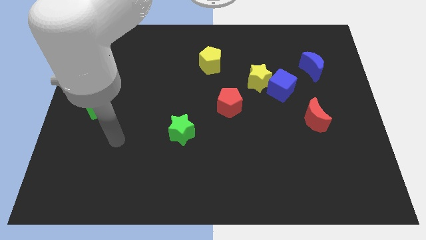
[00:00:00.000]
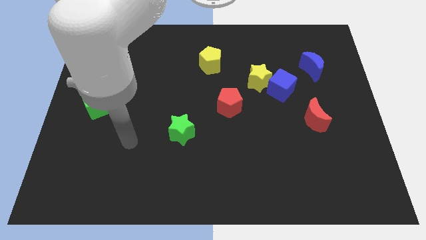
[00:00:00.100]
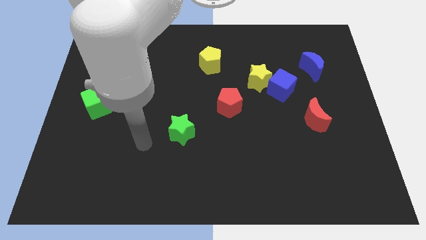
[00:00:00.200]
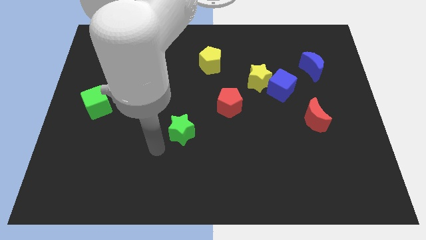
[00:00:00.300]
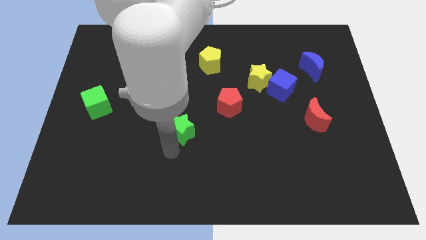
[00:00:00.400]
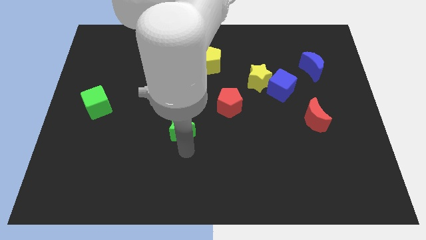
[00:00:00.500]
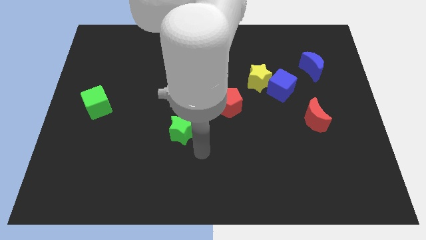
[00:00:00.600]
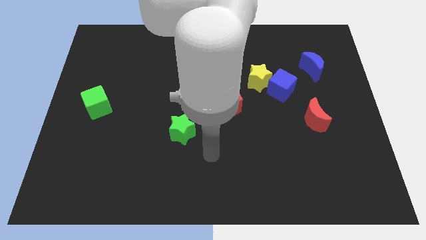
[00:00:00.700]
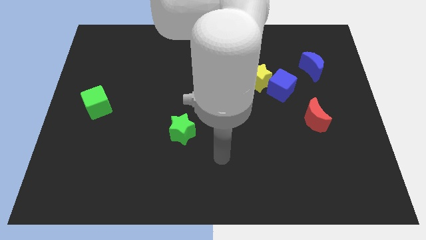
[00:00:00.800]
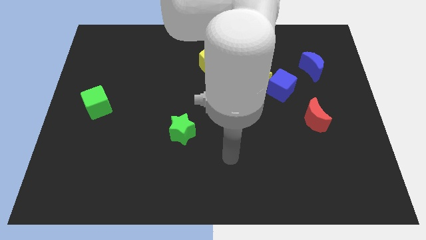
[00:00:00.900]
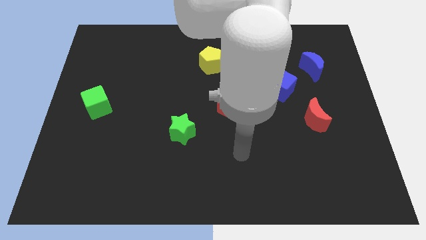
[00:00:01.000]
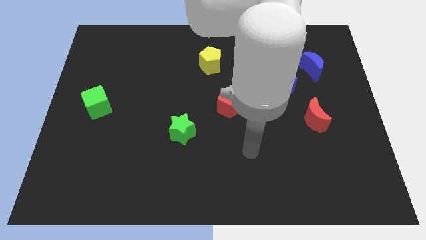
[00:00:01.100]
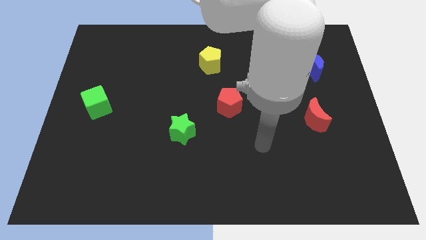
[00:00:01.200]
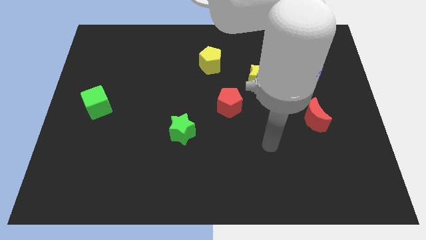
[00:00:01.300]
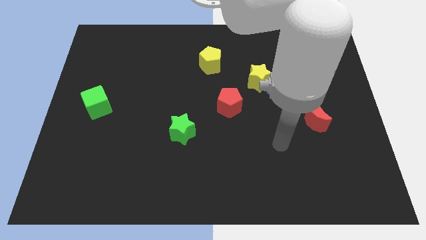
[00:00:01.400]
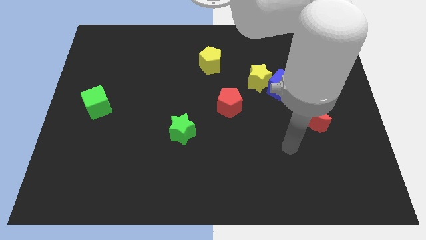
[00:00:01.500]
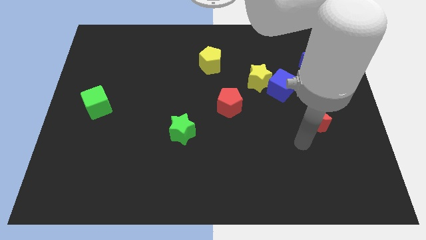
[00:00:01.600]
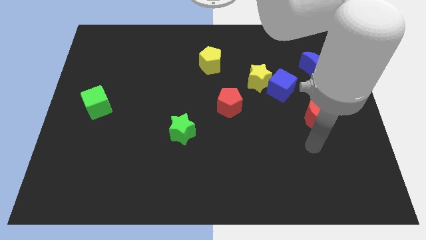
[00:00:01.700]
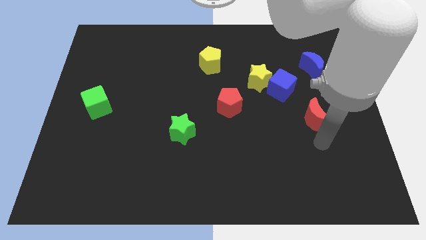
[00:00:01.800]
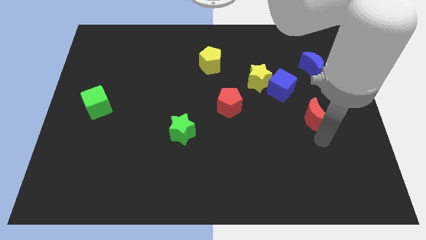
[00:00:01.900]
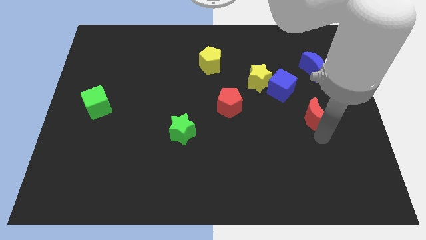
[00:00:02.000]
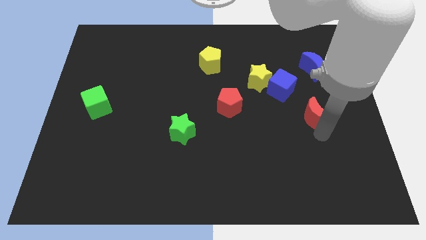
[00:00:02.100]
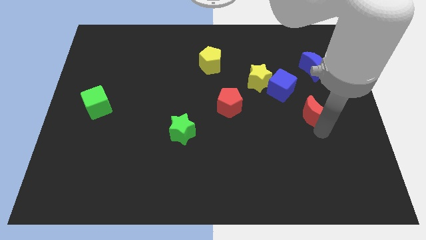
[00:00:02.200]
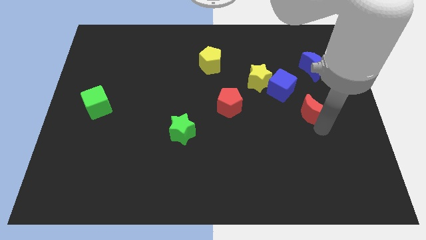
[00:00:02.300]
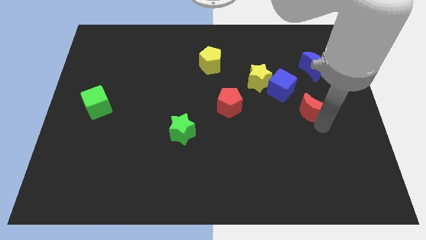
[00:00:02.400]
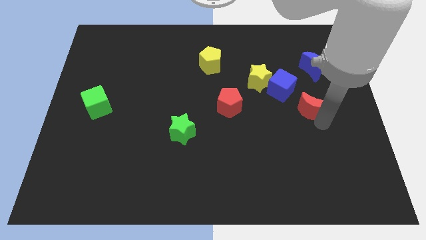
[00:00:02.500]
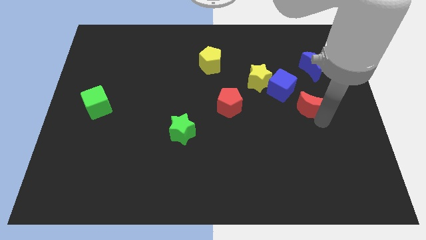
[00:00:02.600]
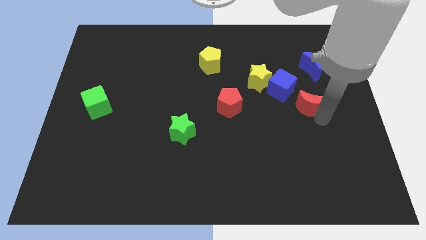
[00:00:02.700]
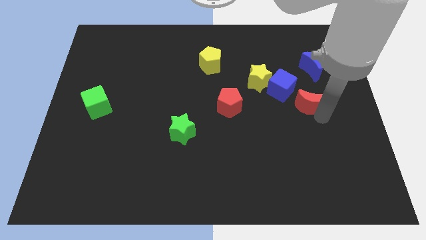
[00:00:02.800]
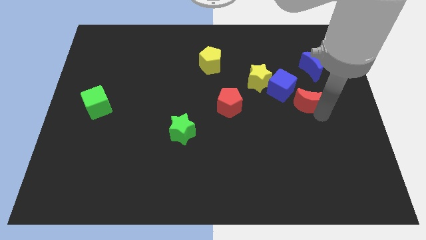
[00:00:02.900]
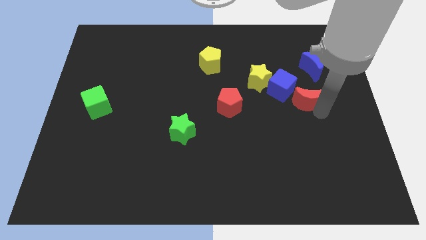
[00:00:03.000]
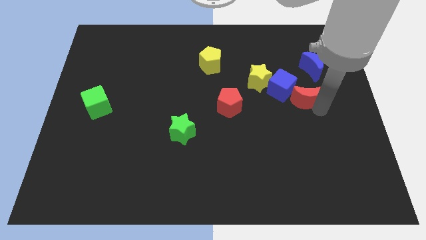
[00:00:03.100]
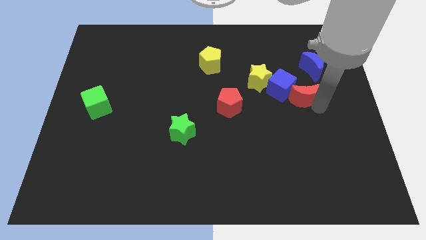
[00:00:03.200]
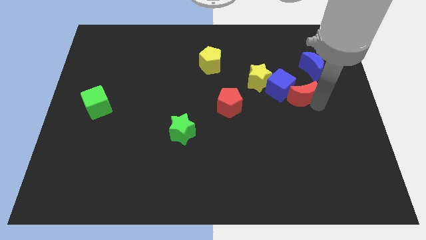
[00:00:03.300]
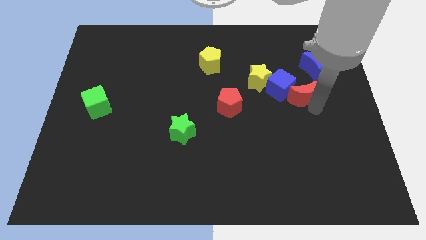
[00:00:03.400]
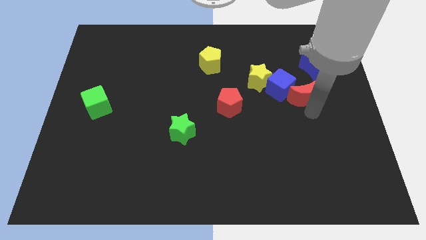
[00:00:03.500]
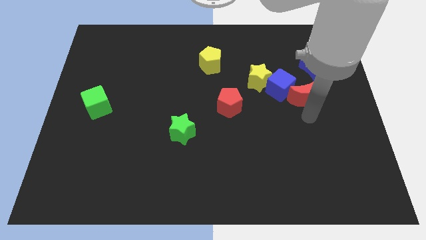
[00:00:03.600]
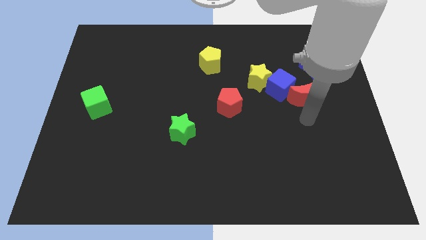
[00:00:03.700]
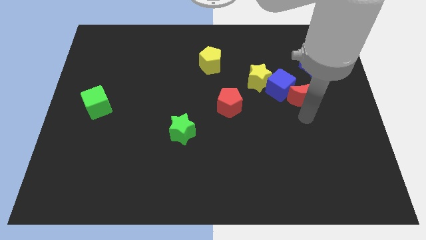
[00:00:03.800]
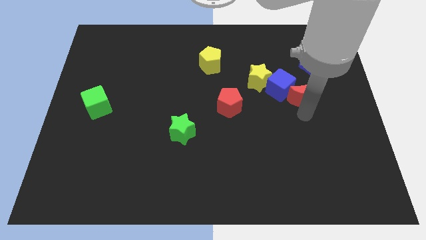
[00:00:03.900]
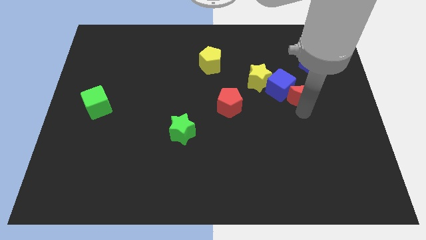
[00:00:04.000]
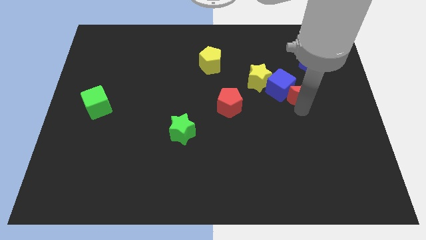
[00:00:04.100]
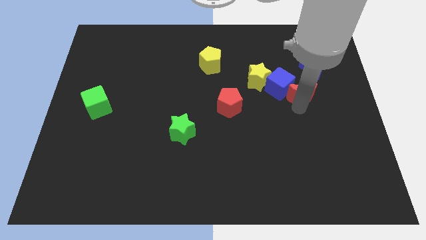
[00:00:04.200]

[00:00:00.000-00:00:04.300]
slightly slide the red moon up

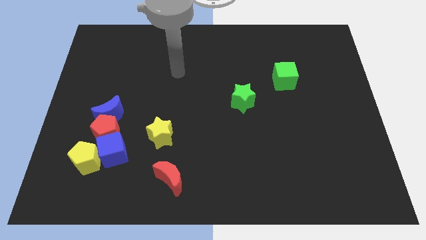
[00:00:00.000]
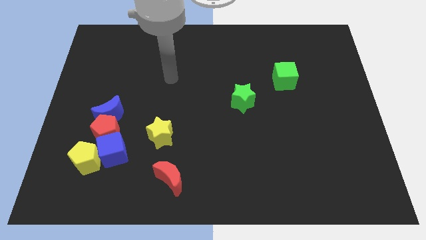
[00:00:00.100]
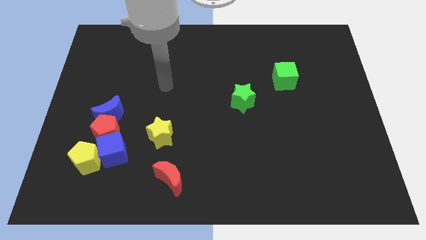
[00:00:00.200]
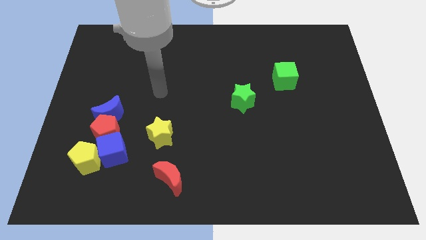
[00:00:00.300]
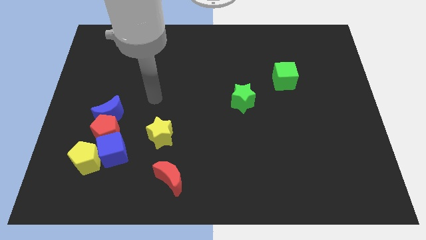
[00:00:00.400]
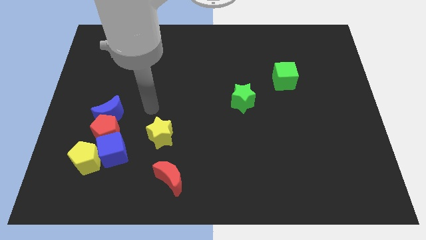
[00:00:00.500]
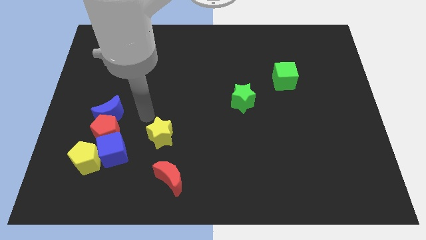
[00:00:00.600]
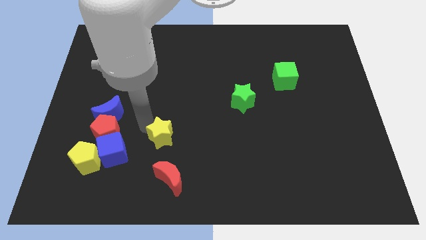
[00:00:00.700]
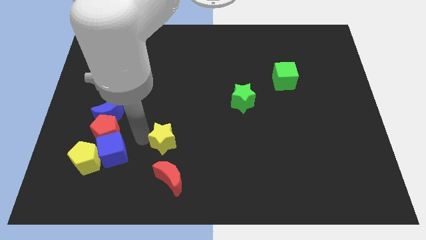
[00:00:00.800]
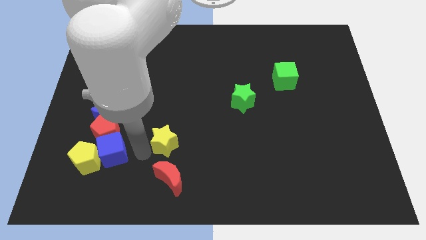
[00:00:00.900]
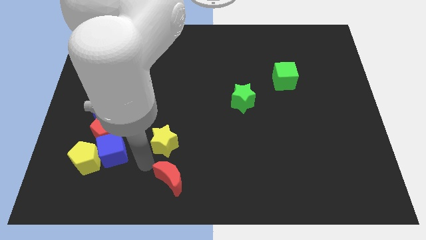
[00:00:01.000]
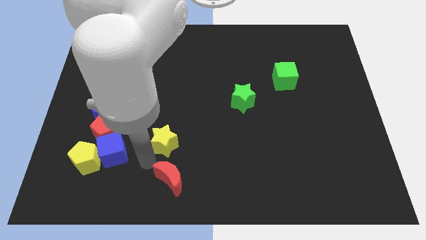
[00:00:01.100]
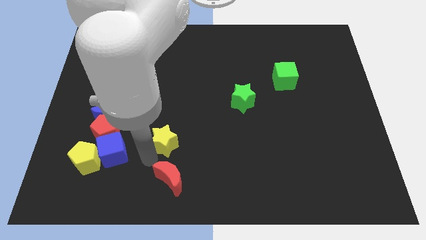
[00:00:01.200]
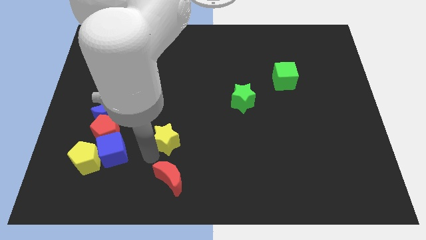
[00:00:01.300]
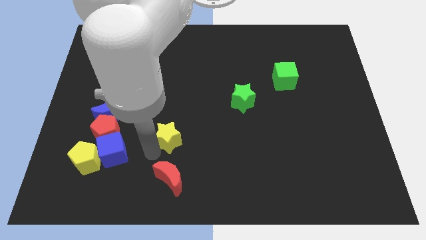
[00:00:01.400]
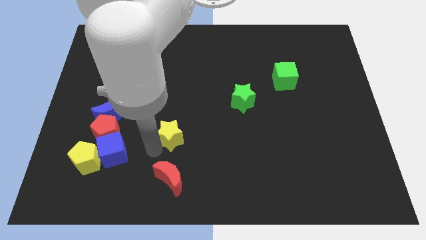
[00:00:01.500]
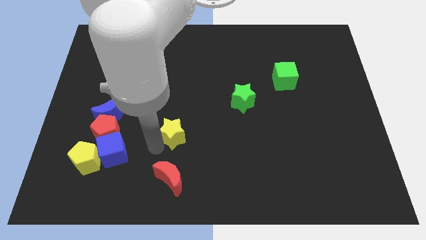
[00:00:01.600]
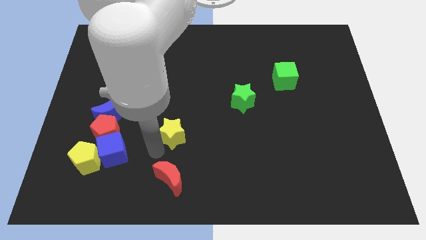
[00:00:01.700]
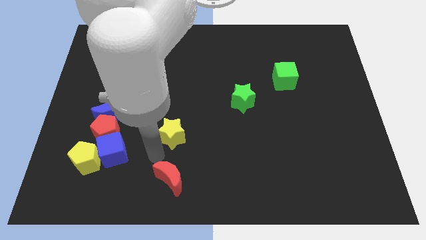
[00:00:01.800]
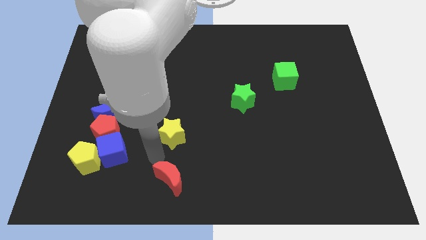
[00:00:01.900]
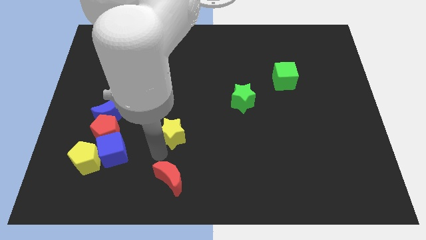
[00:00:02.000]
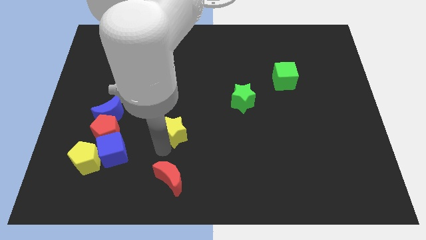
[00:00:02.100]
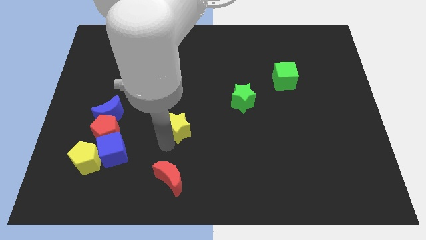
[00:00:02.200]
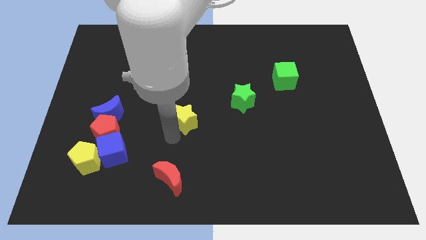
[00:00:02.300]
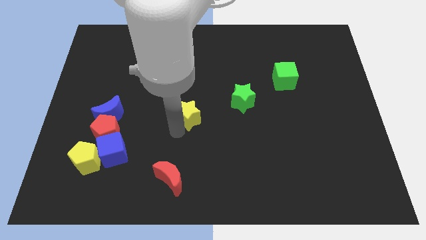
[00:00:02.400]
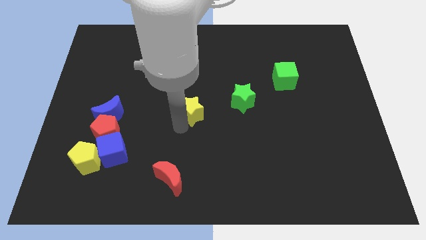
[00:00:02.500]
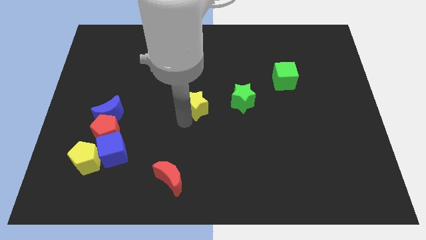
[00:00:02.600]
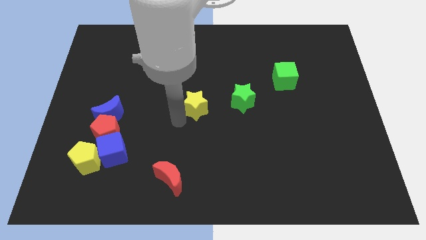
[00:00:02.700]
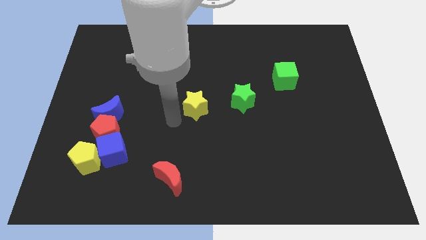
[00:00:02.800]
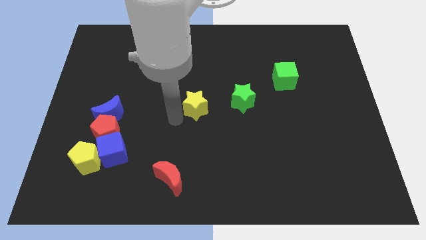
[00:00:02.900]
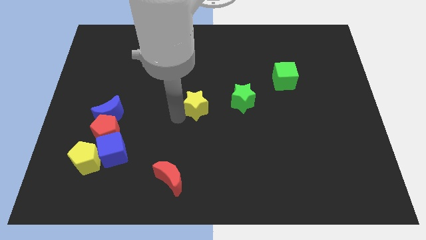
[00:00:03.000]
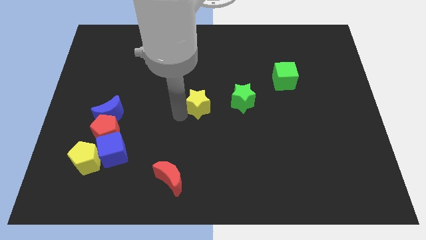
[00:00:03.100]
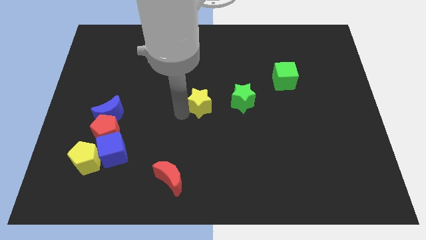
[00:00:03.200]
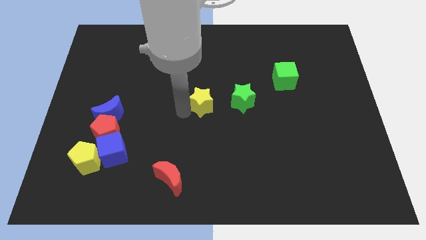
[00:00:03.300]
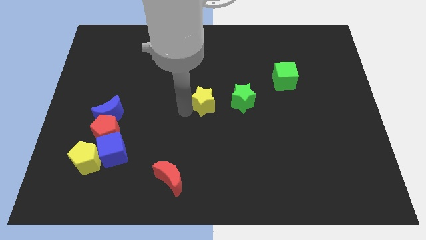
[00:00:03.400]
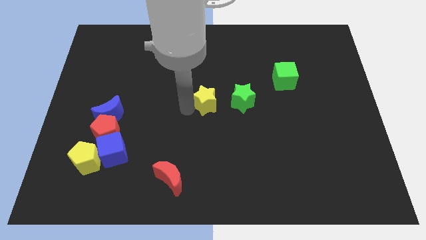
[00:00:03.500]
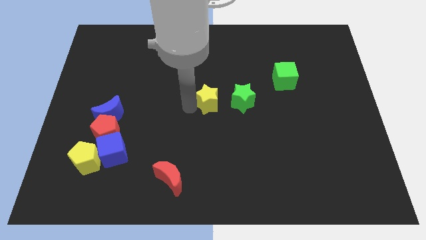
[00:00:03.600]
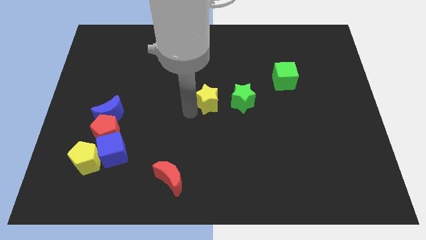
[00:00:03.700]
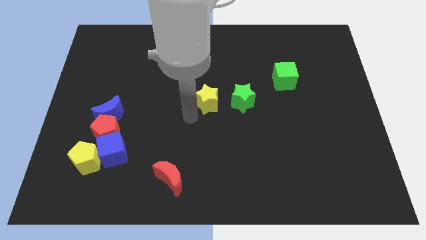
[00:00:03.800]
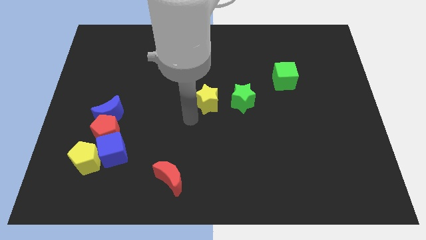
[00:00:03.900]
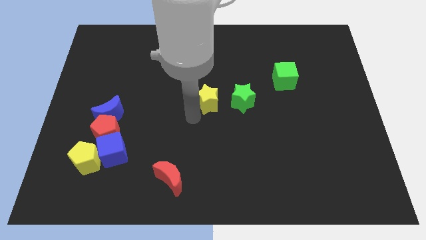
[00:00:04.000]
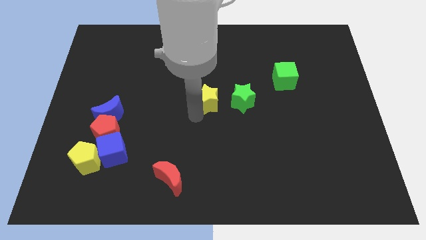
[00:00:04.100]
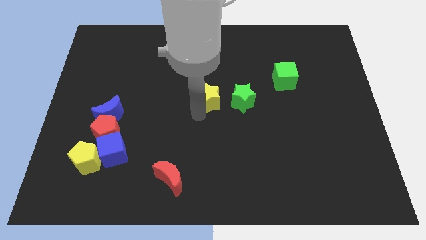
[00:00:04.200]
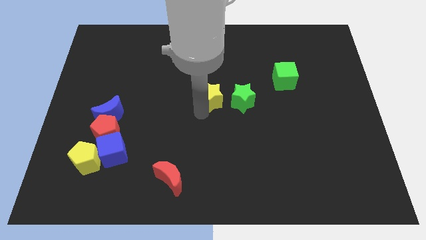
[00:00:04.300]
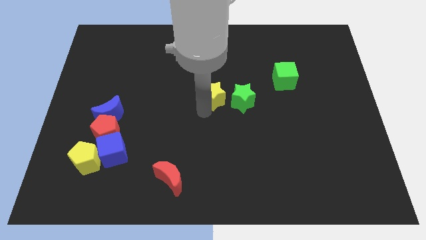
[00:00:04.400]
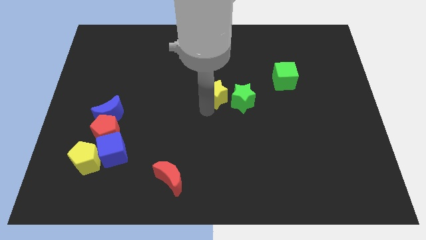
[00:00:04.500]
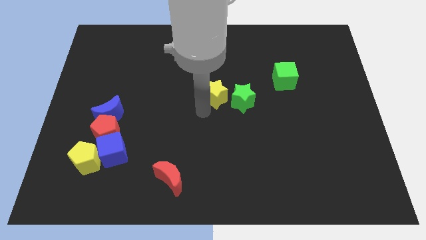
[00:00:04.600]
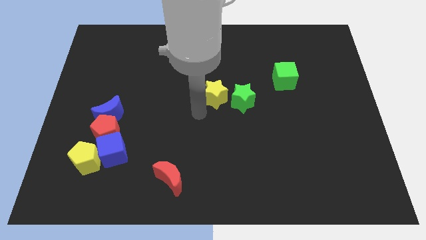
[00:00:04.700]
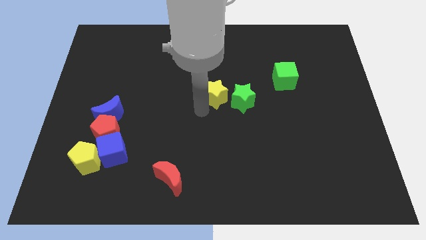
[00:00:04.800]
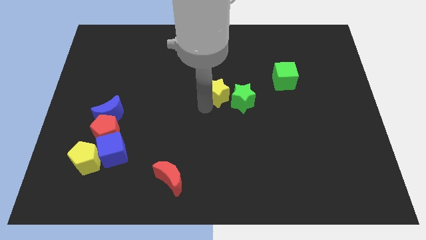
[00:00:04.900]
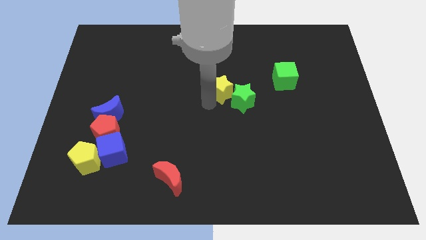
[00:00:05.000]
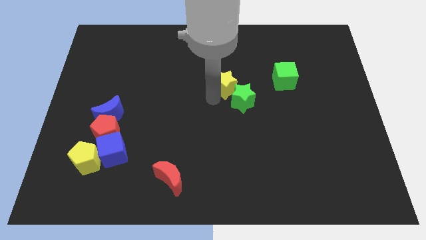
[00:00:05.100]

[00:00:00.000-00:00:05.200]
push the yellow star diagonally up and to the right
